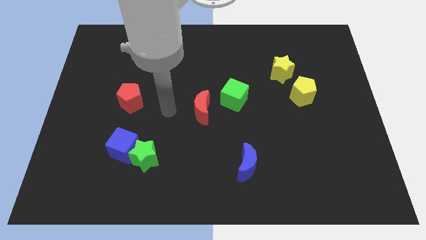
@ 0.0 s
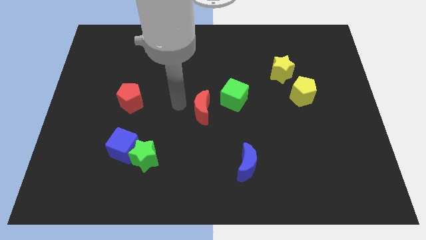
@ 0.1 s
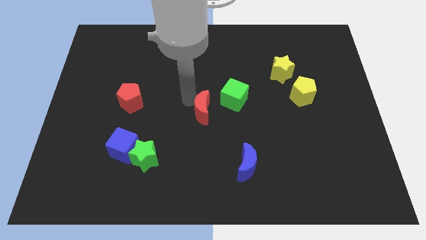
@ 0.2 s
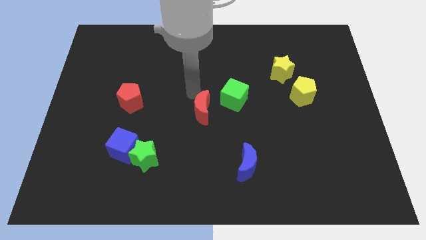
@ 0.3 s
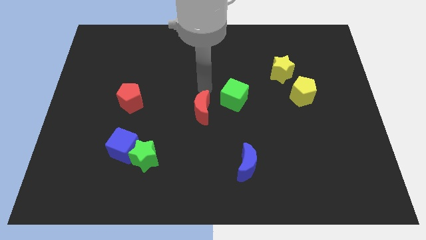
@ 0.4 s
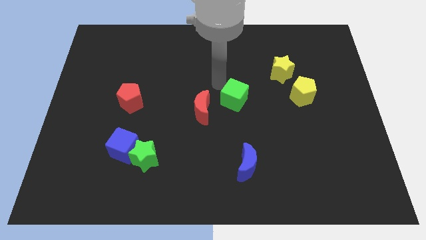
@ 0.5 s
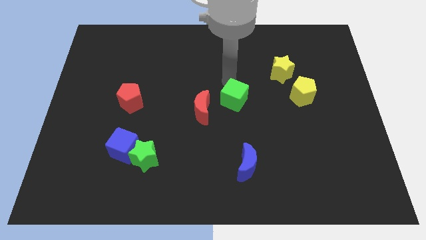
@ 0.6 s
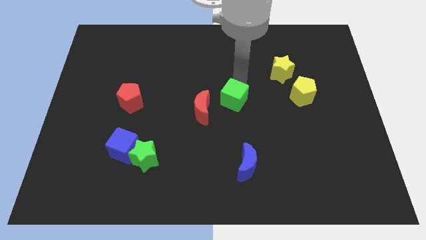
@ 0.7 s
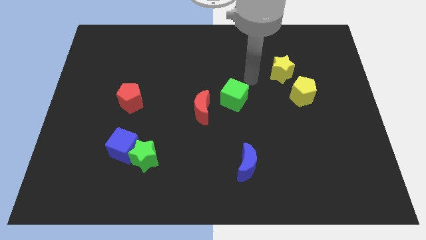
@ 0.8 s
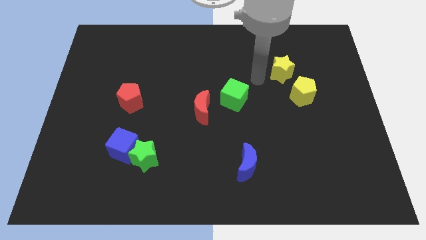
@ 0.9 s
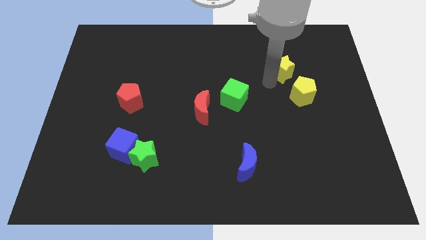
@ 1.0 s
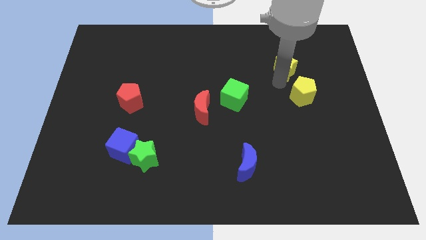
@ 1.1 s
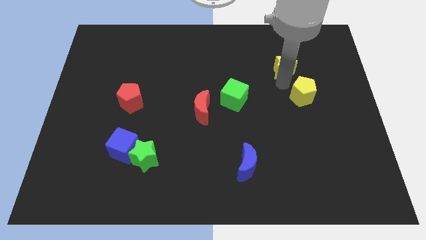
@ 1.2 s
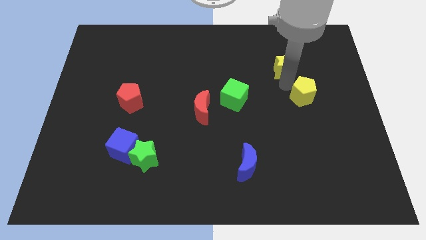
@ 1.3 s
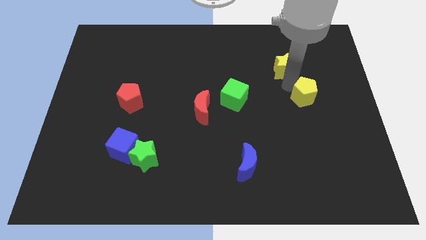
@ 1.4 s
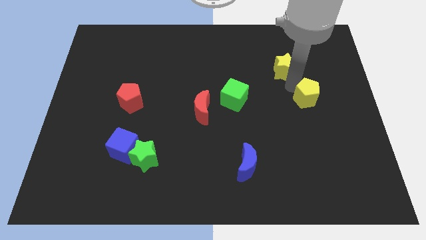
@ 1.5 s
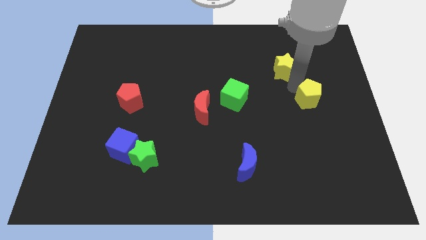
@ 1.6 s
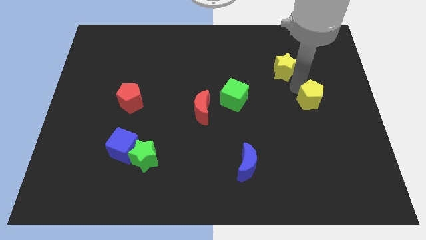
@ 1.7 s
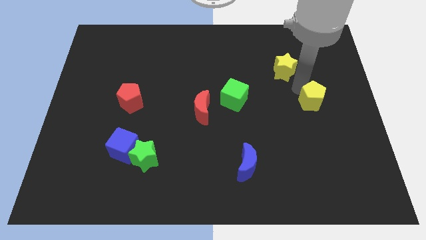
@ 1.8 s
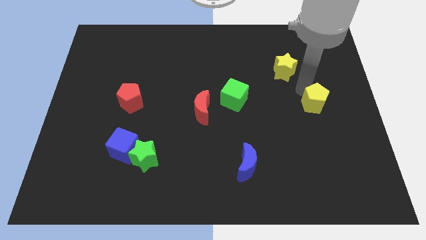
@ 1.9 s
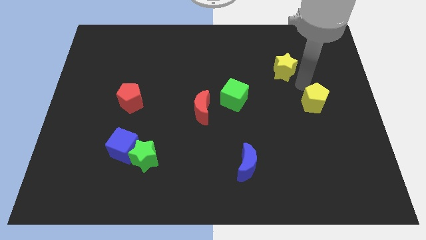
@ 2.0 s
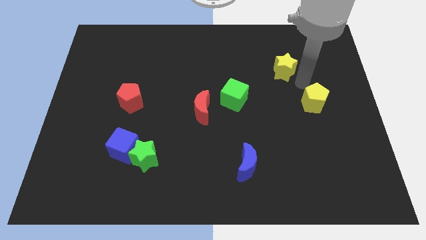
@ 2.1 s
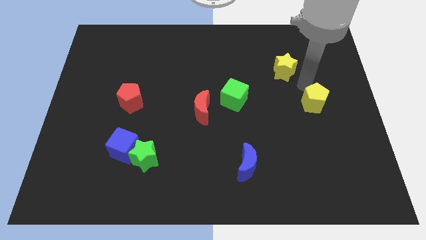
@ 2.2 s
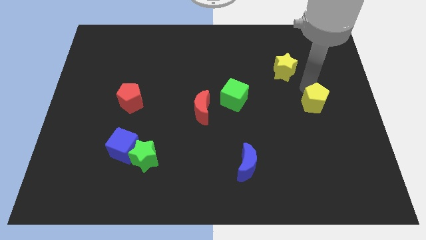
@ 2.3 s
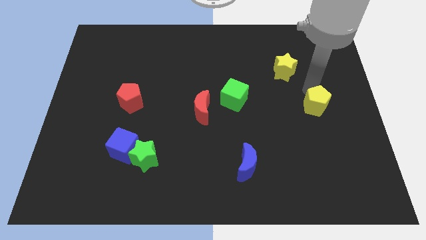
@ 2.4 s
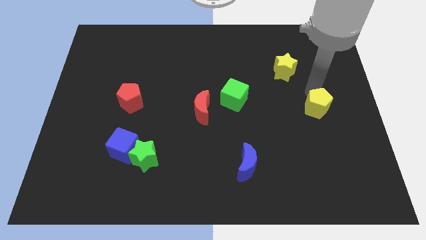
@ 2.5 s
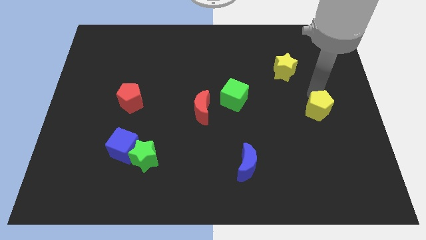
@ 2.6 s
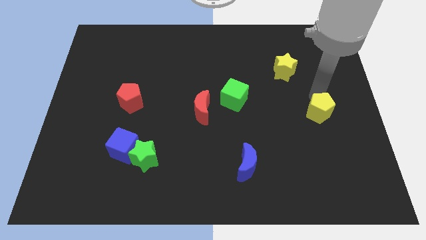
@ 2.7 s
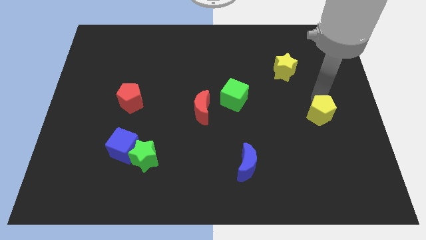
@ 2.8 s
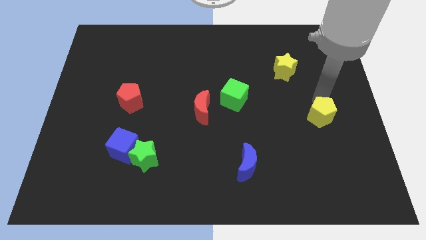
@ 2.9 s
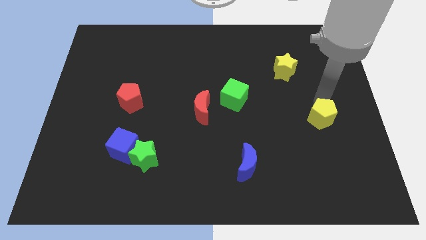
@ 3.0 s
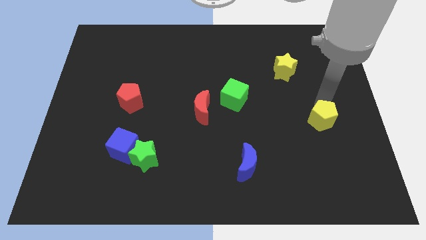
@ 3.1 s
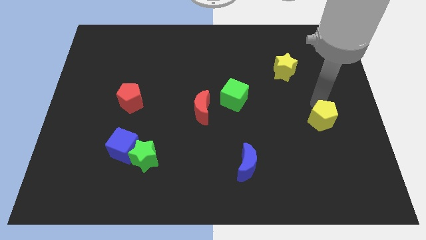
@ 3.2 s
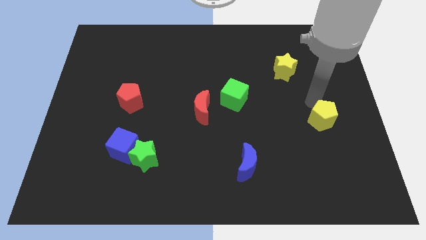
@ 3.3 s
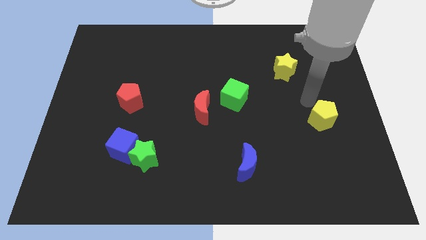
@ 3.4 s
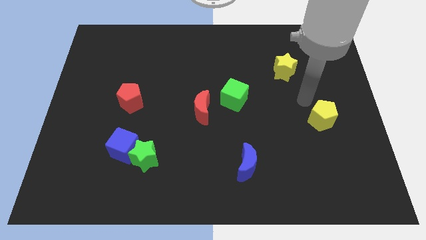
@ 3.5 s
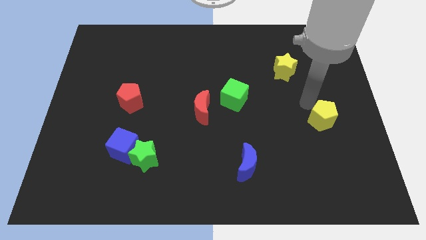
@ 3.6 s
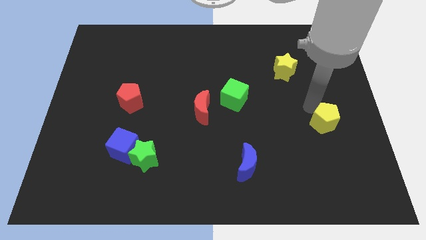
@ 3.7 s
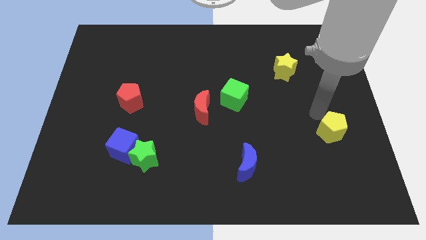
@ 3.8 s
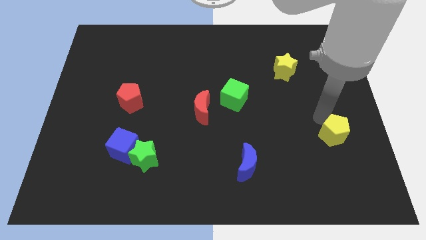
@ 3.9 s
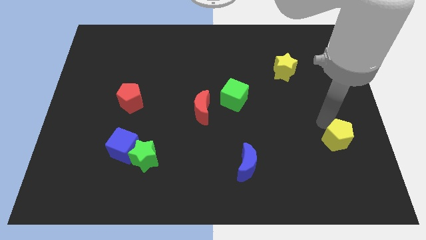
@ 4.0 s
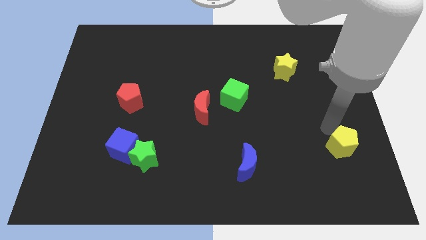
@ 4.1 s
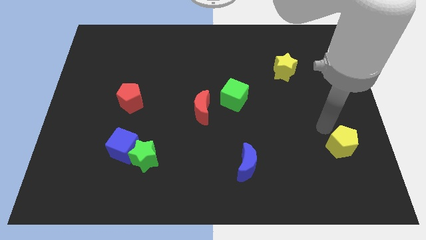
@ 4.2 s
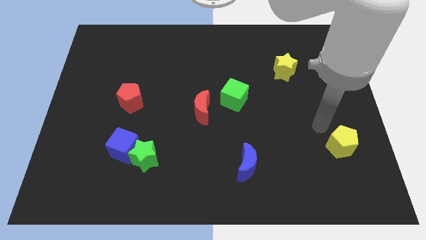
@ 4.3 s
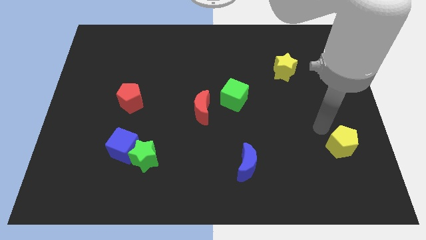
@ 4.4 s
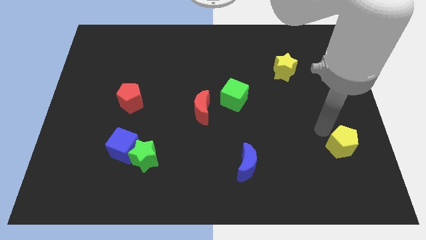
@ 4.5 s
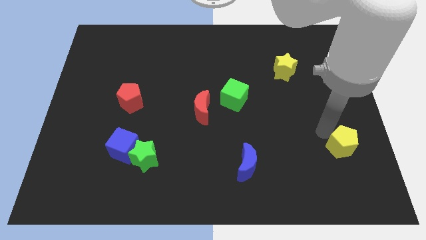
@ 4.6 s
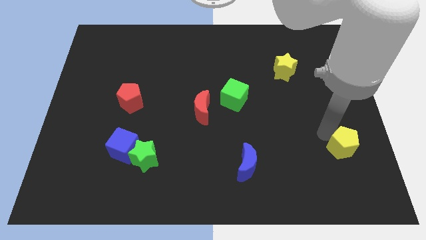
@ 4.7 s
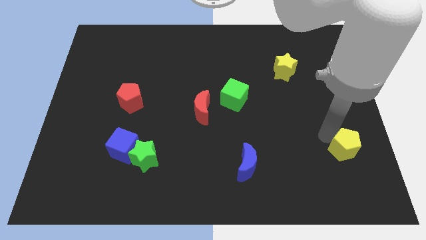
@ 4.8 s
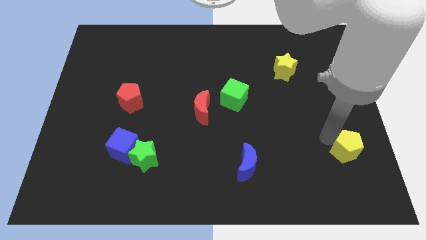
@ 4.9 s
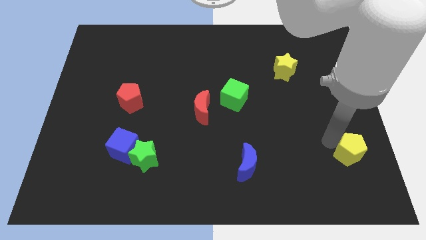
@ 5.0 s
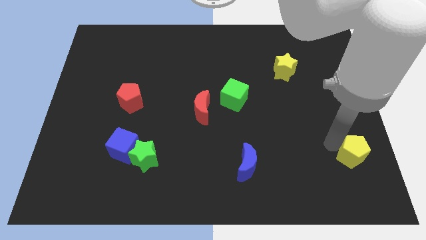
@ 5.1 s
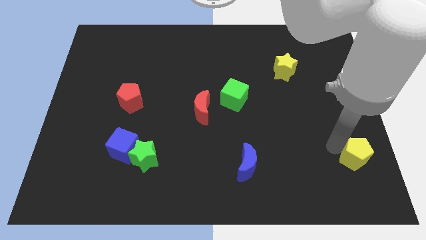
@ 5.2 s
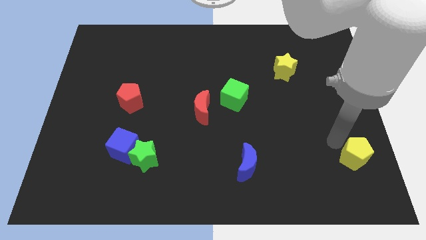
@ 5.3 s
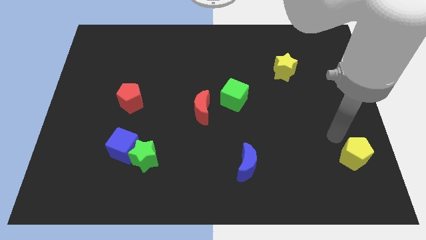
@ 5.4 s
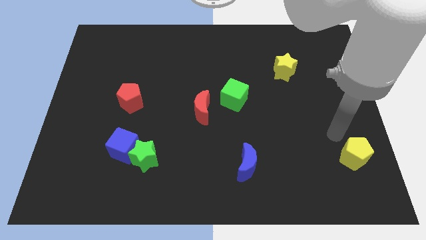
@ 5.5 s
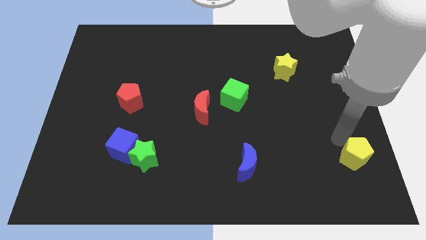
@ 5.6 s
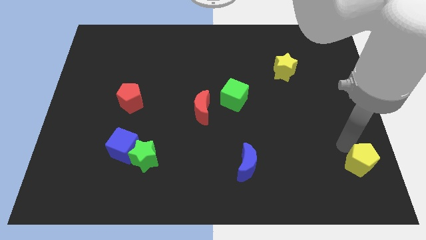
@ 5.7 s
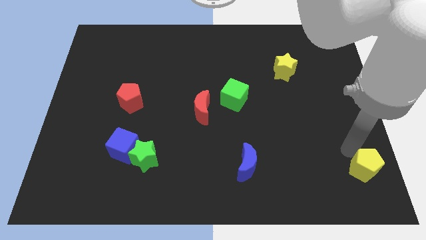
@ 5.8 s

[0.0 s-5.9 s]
slide the yellow pentagon to the bottom right of the board
